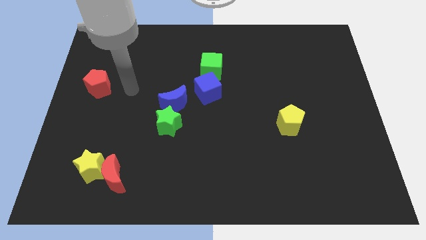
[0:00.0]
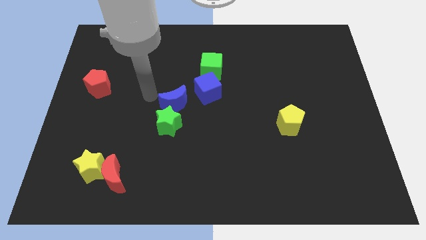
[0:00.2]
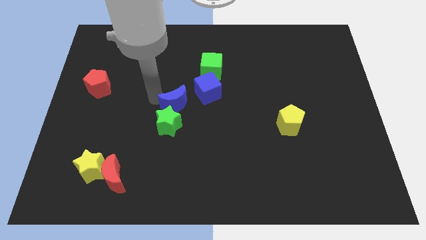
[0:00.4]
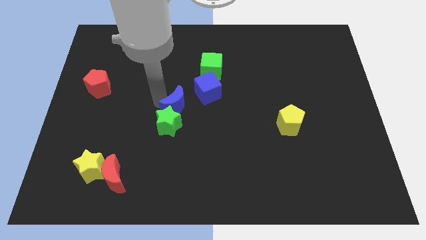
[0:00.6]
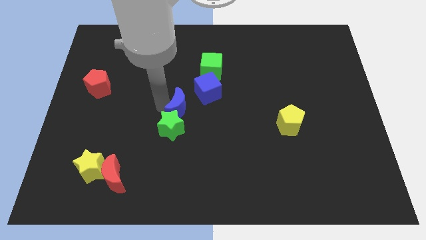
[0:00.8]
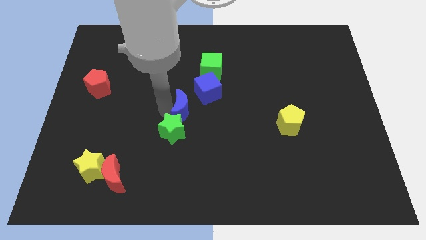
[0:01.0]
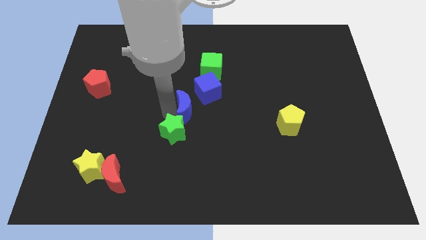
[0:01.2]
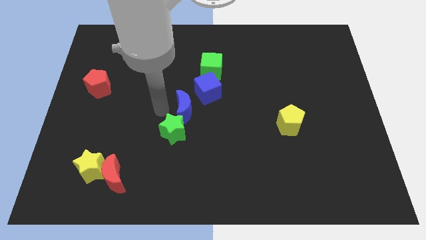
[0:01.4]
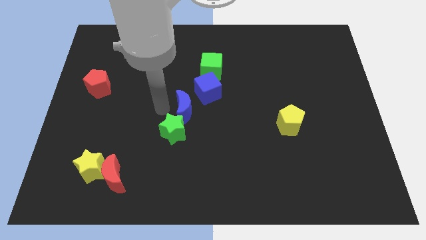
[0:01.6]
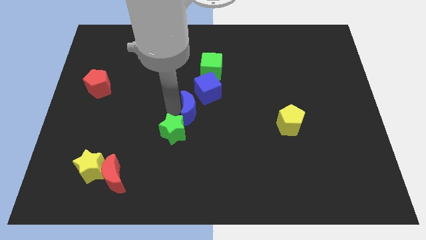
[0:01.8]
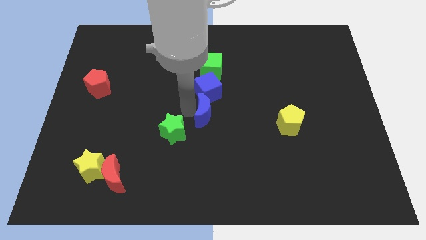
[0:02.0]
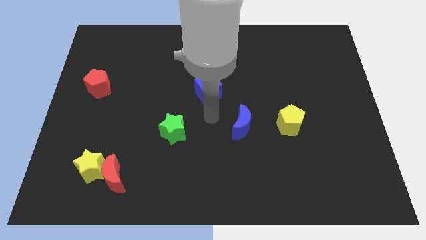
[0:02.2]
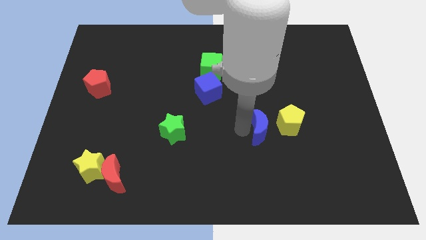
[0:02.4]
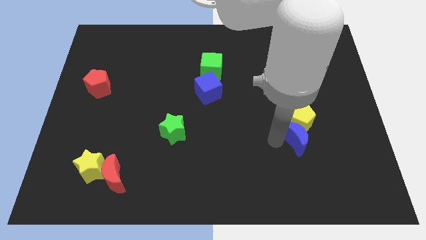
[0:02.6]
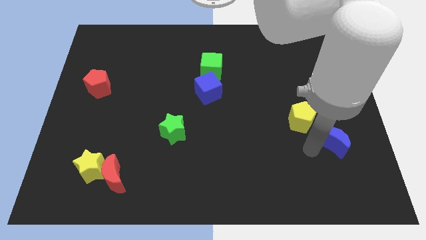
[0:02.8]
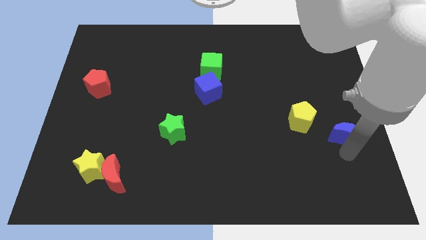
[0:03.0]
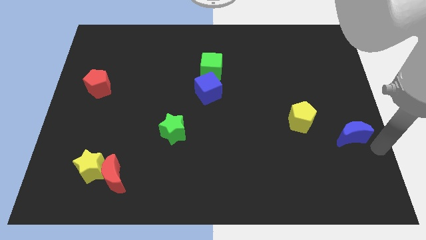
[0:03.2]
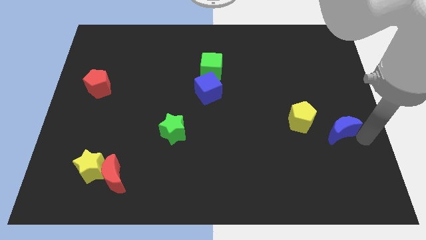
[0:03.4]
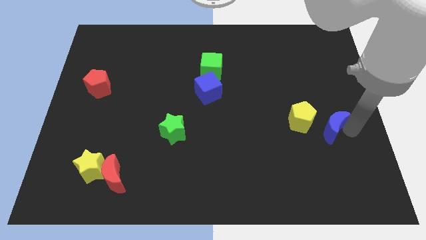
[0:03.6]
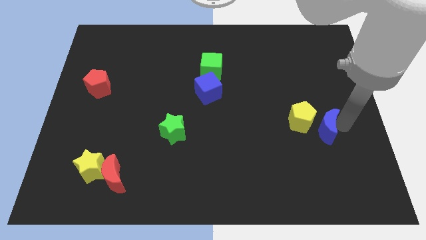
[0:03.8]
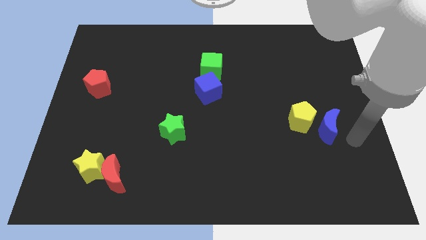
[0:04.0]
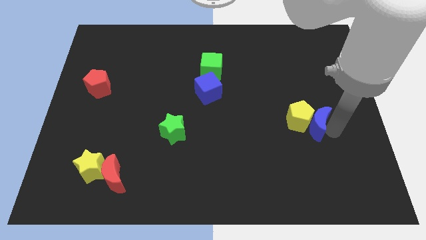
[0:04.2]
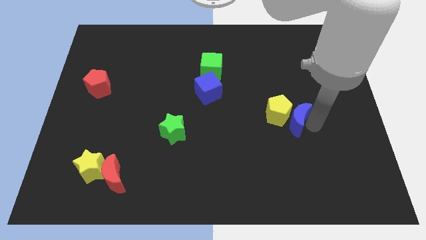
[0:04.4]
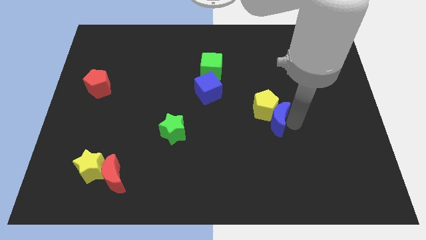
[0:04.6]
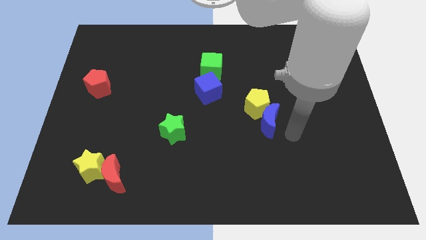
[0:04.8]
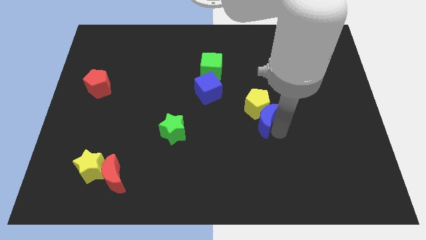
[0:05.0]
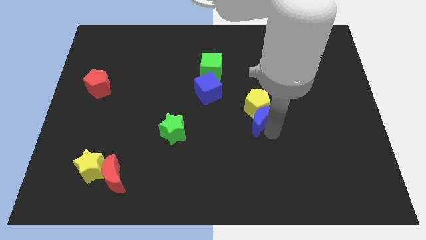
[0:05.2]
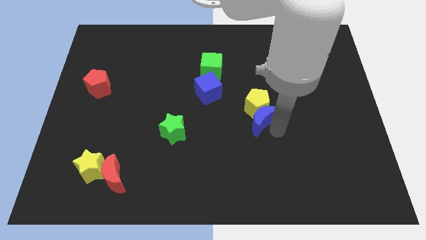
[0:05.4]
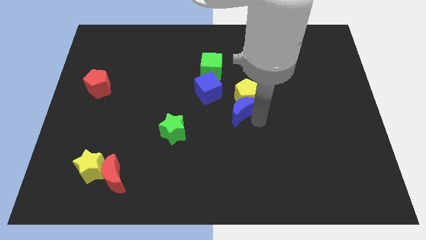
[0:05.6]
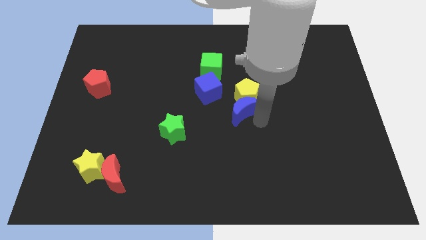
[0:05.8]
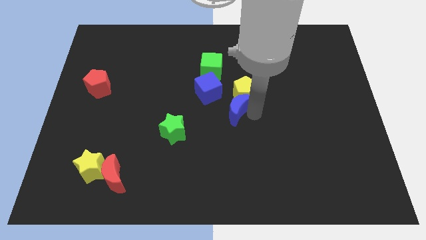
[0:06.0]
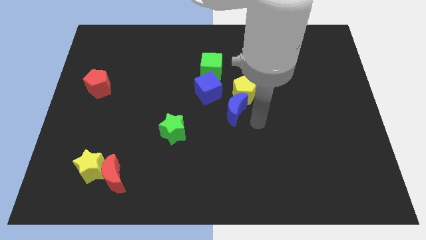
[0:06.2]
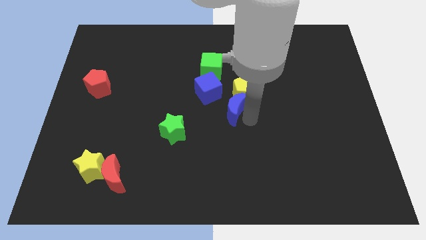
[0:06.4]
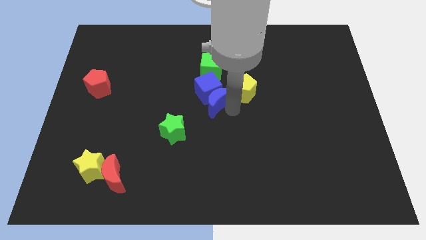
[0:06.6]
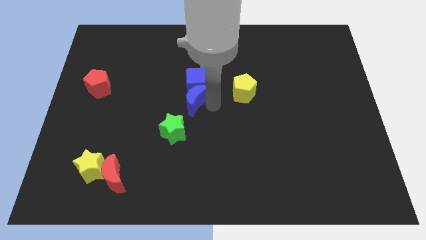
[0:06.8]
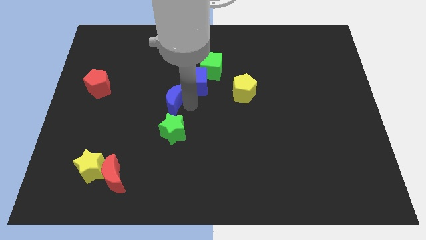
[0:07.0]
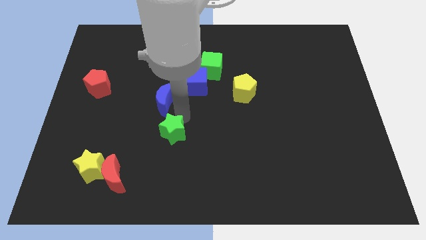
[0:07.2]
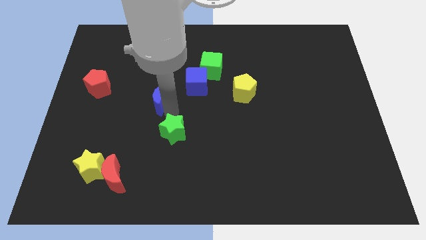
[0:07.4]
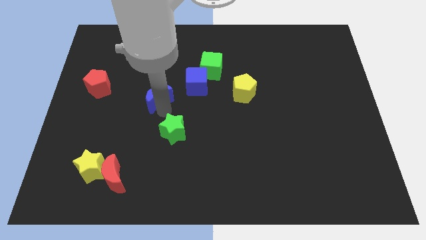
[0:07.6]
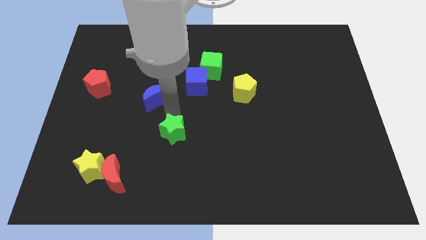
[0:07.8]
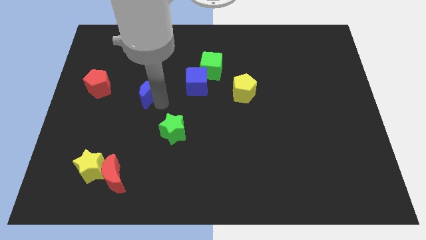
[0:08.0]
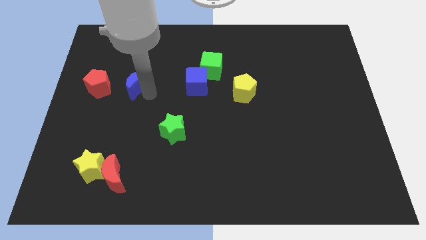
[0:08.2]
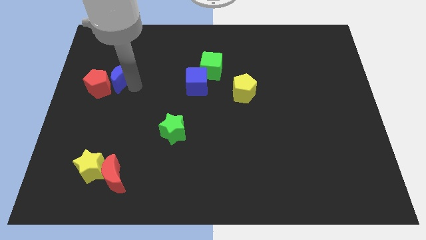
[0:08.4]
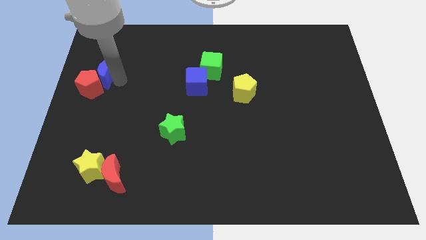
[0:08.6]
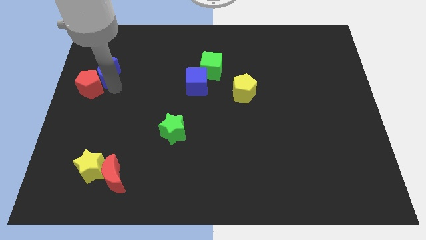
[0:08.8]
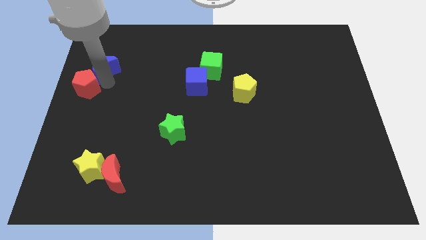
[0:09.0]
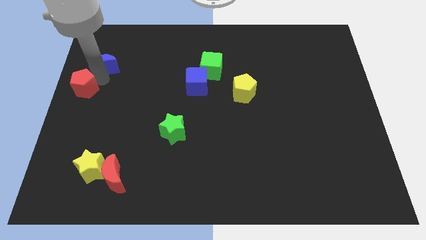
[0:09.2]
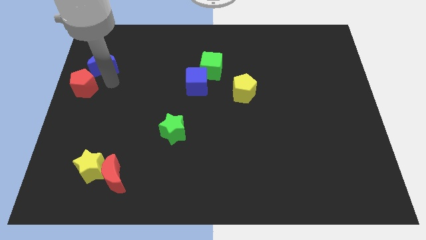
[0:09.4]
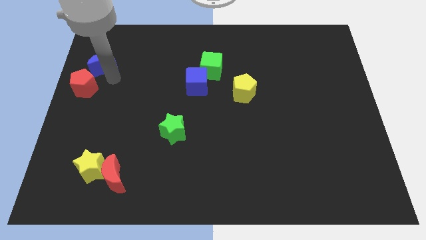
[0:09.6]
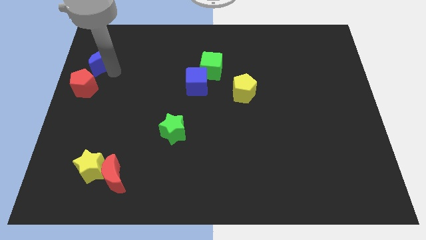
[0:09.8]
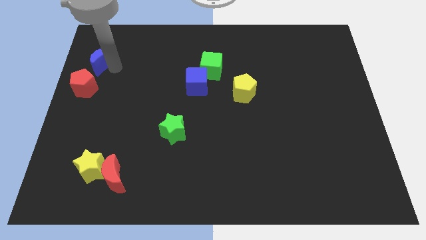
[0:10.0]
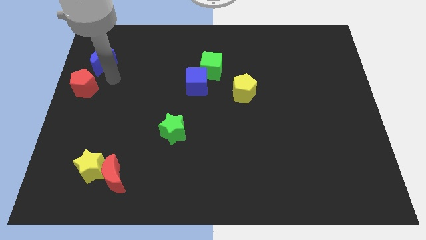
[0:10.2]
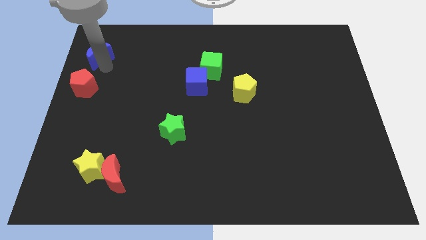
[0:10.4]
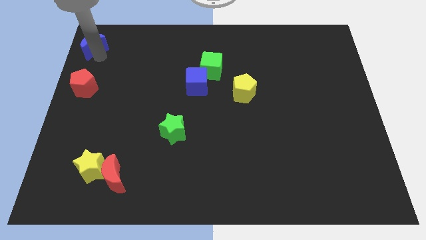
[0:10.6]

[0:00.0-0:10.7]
slide the blue moon to the top left of the board

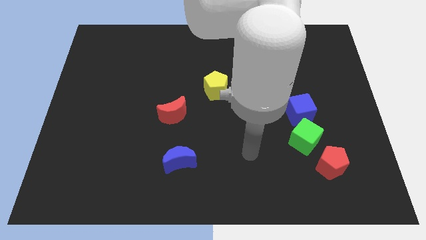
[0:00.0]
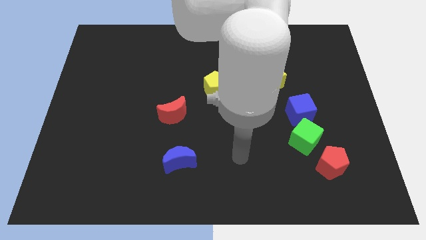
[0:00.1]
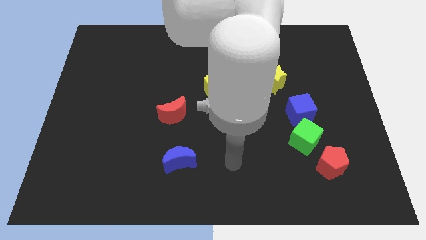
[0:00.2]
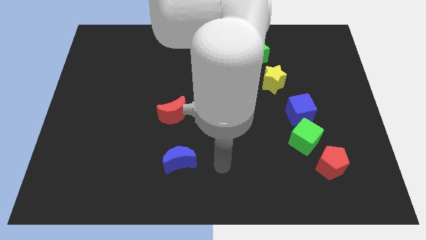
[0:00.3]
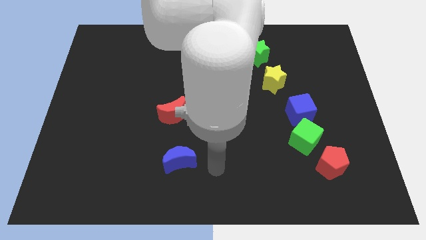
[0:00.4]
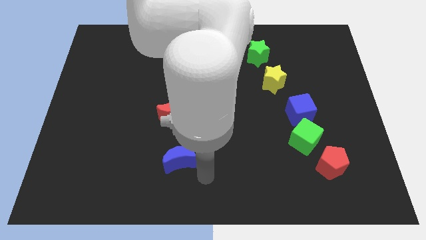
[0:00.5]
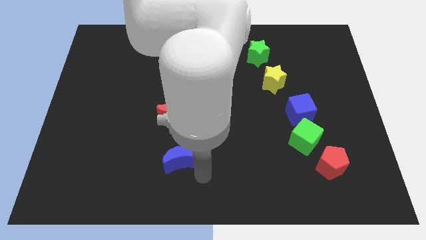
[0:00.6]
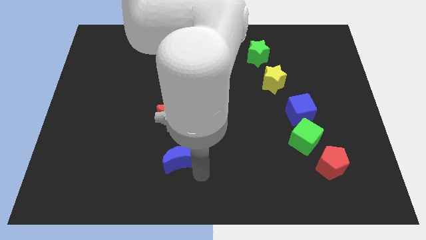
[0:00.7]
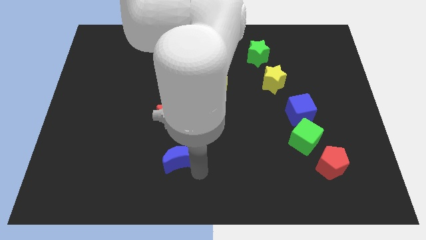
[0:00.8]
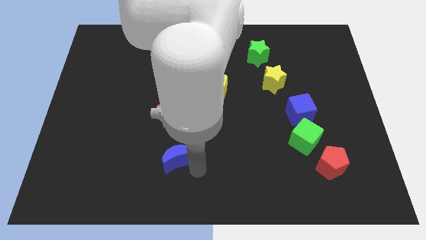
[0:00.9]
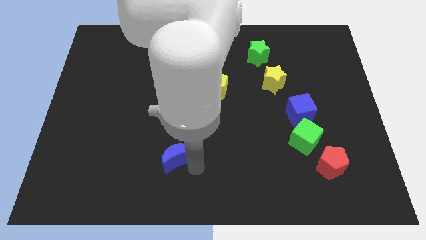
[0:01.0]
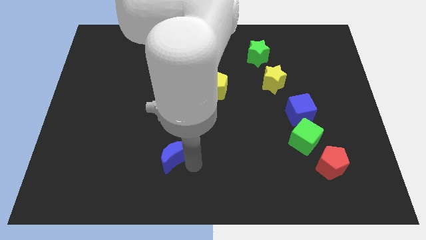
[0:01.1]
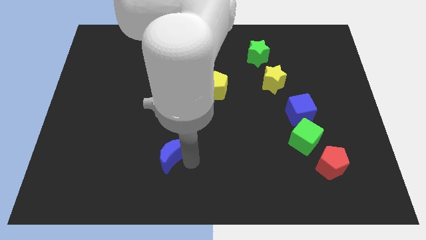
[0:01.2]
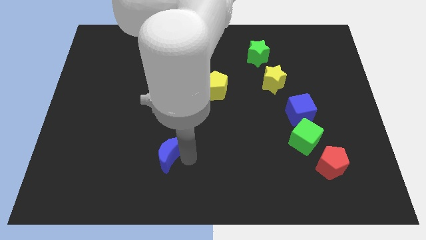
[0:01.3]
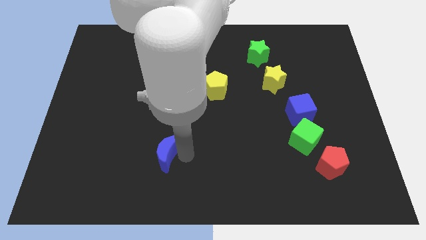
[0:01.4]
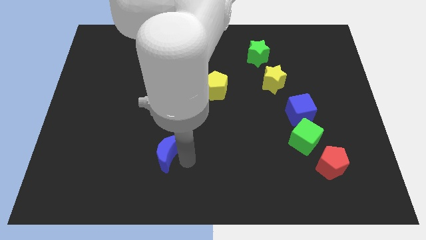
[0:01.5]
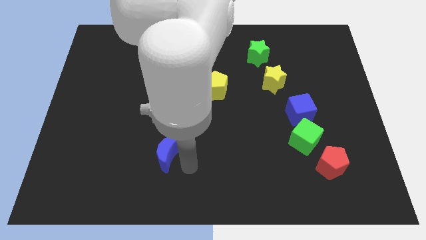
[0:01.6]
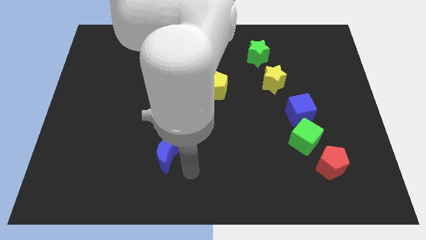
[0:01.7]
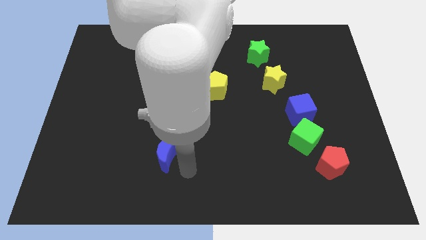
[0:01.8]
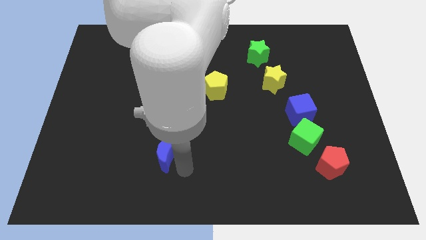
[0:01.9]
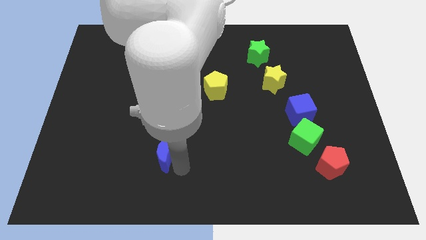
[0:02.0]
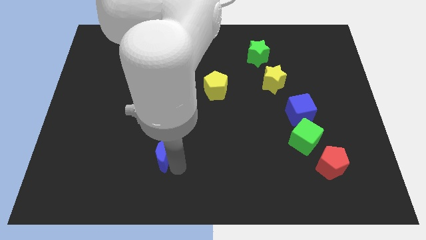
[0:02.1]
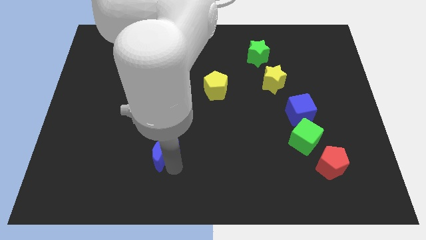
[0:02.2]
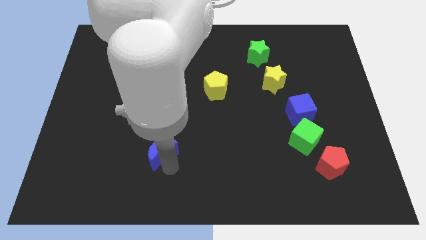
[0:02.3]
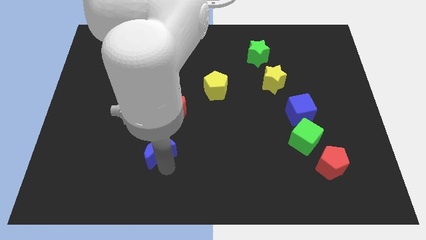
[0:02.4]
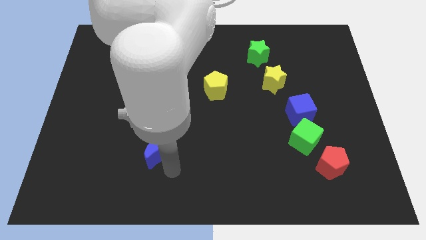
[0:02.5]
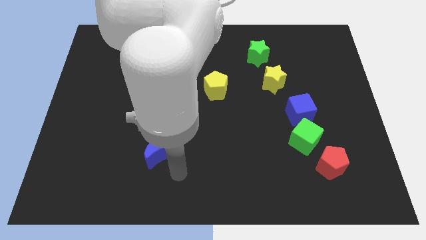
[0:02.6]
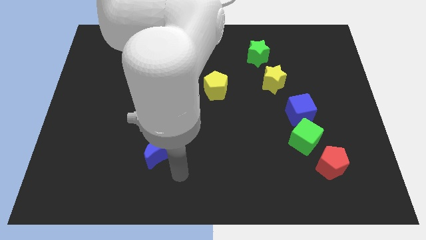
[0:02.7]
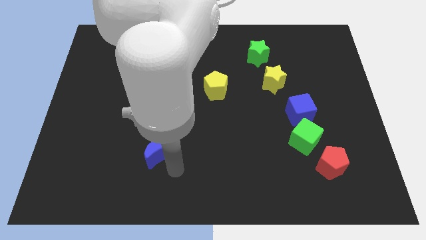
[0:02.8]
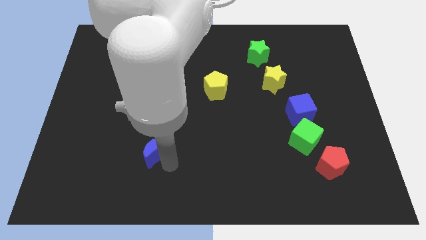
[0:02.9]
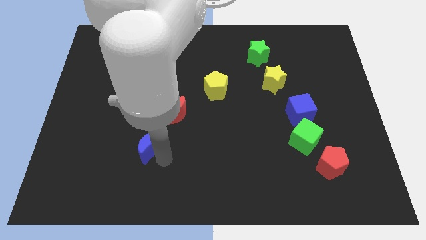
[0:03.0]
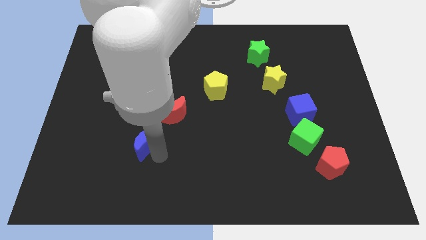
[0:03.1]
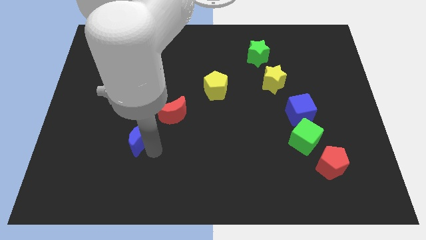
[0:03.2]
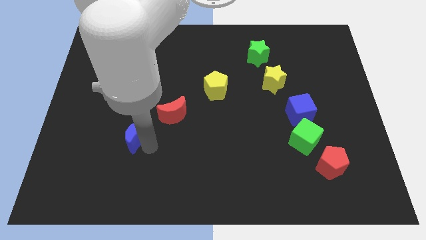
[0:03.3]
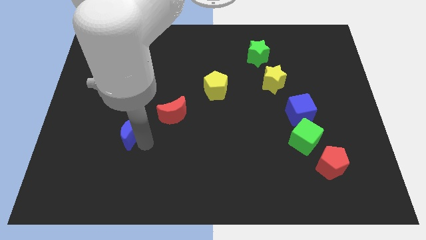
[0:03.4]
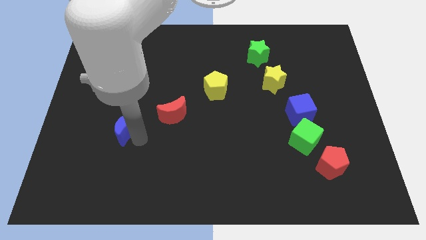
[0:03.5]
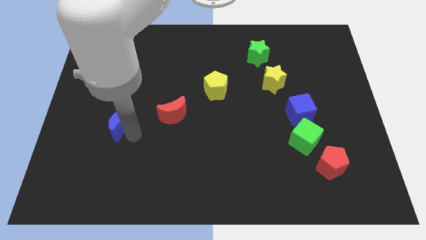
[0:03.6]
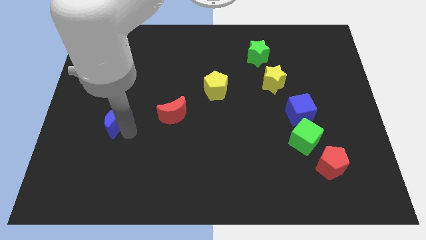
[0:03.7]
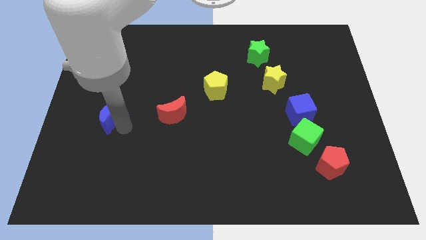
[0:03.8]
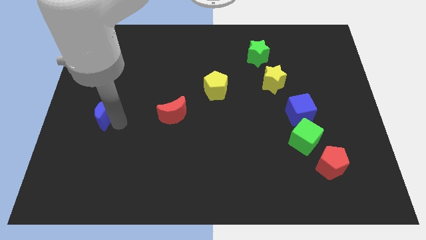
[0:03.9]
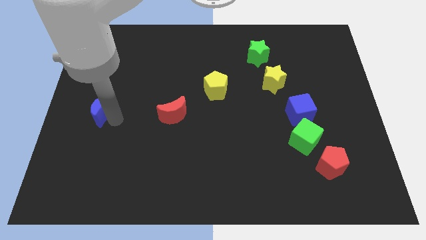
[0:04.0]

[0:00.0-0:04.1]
push the blue moon to the center left
